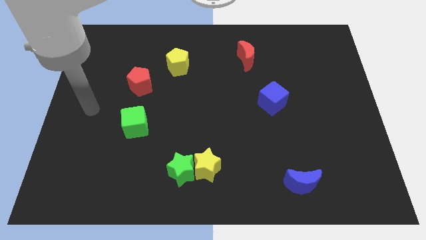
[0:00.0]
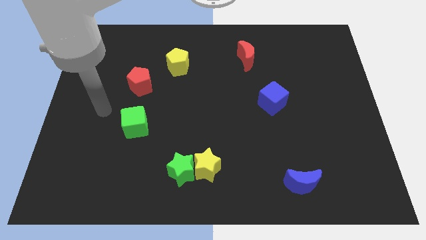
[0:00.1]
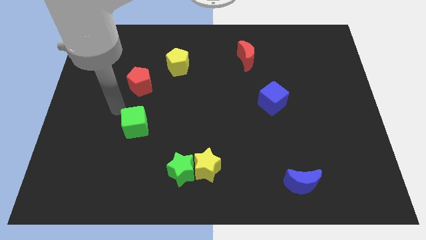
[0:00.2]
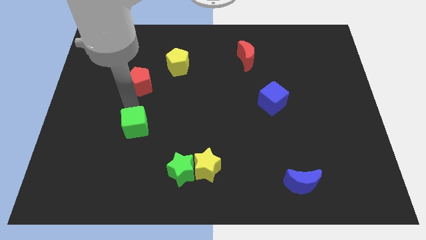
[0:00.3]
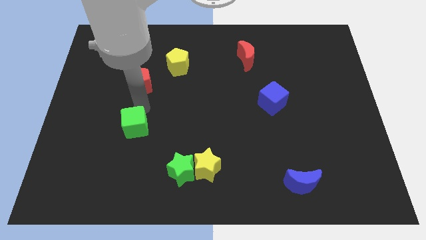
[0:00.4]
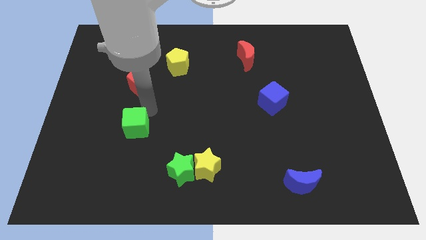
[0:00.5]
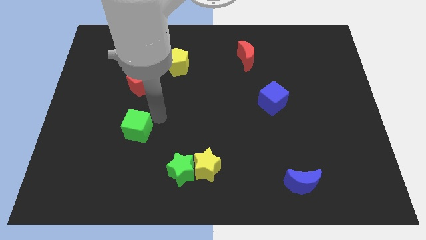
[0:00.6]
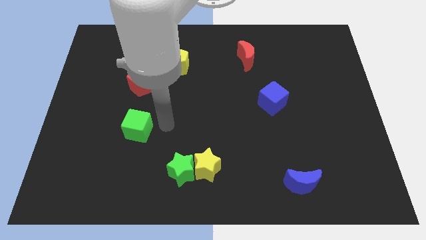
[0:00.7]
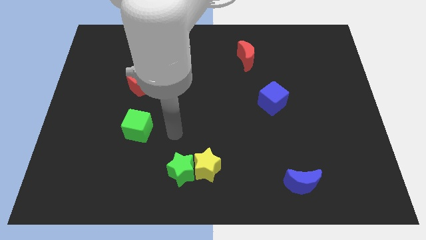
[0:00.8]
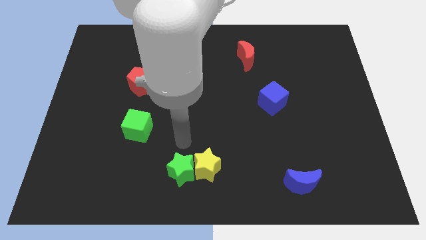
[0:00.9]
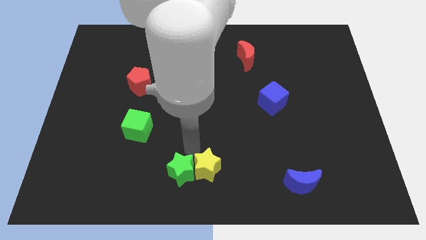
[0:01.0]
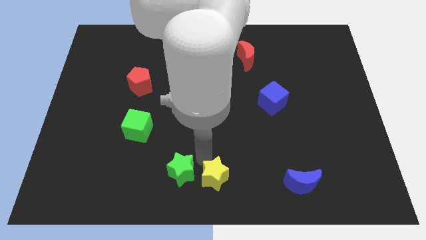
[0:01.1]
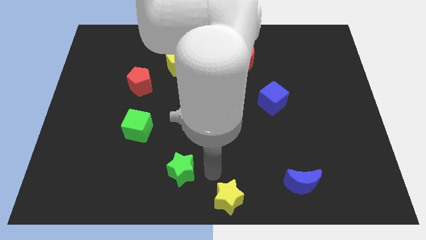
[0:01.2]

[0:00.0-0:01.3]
separate the green star from the yellow star

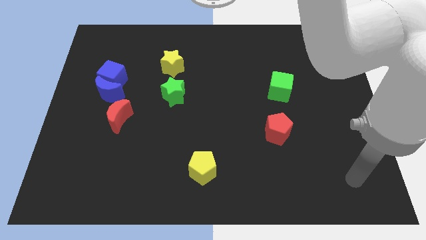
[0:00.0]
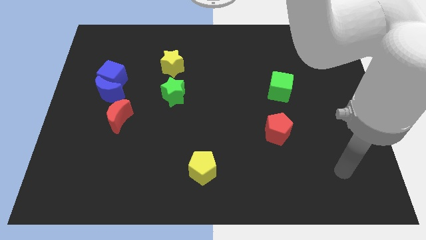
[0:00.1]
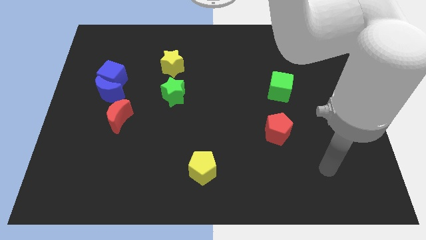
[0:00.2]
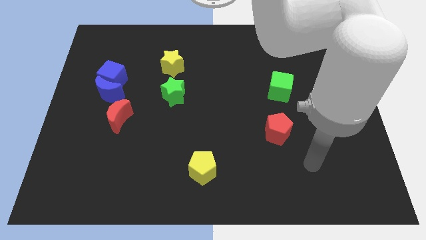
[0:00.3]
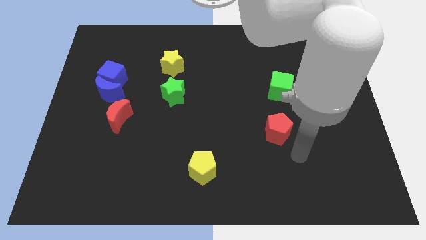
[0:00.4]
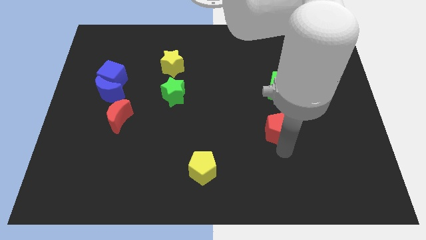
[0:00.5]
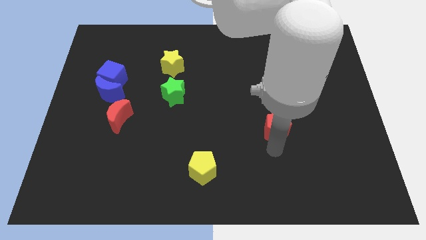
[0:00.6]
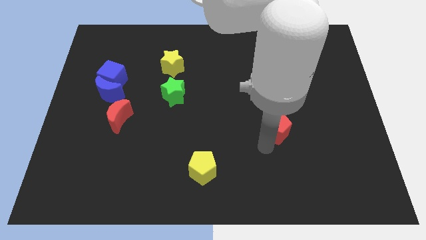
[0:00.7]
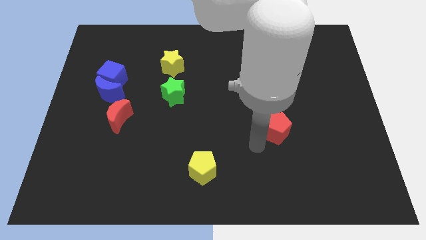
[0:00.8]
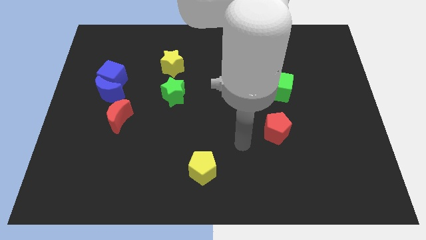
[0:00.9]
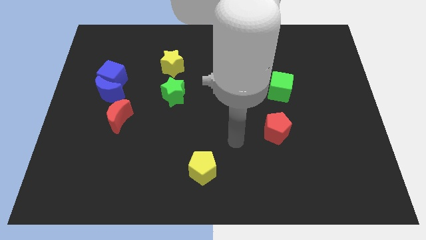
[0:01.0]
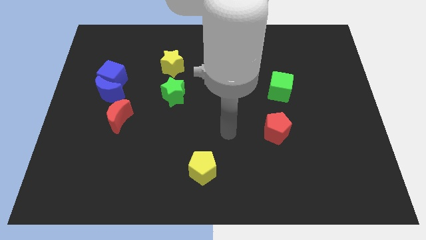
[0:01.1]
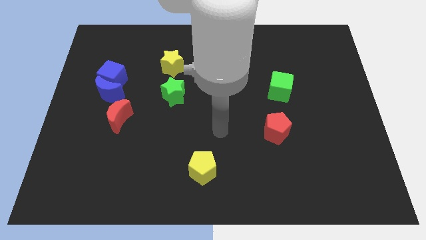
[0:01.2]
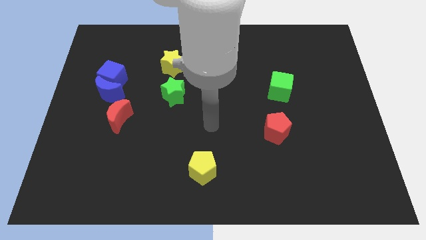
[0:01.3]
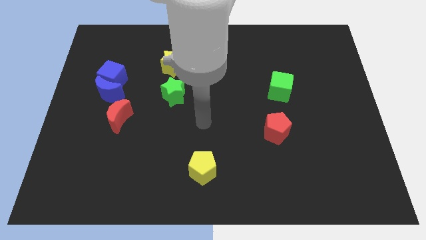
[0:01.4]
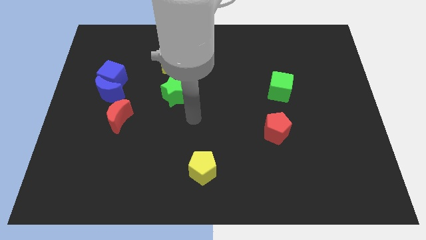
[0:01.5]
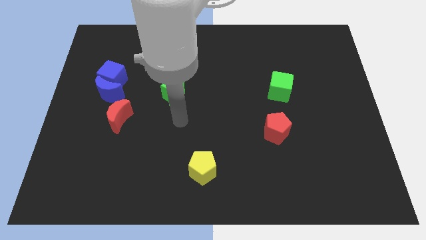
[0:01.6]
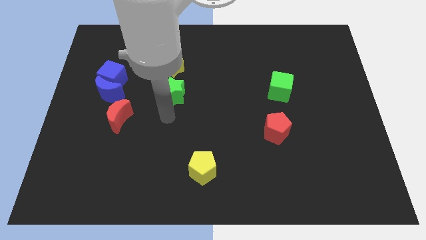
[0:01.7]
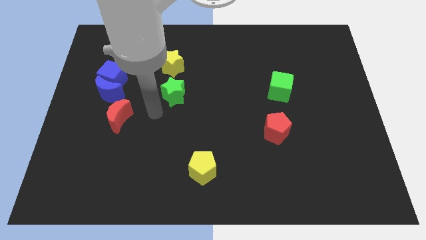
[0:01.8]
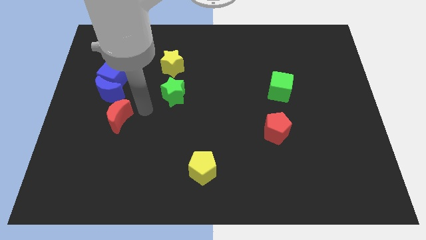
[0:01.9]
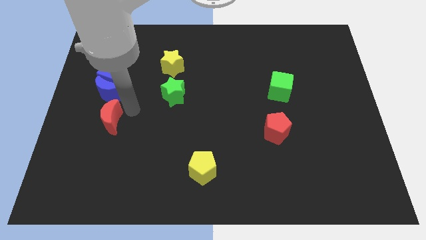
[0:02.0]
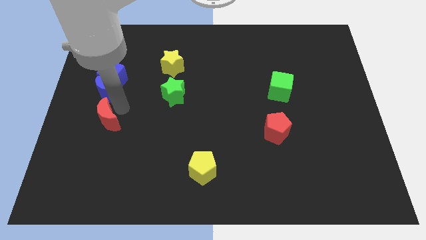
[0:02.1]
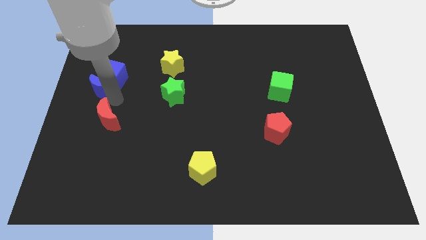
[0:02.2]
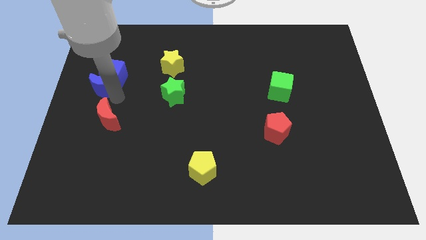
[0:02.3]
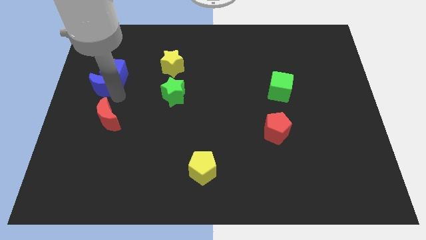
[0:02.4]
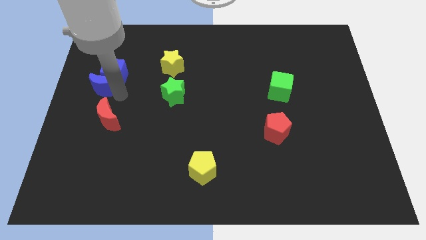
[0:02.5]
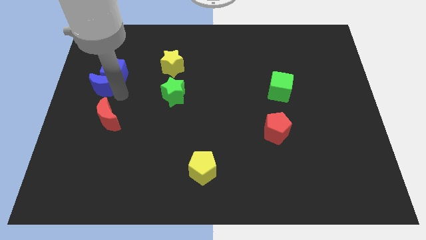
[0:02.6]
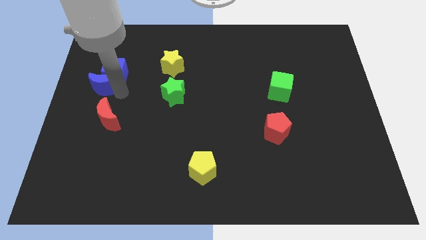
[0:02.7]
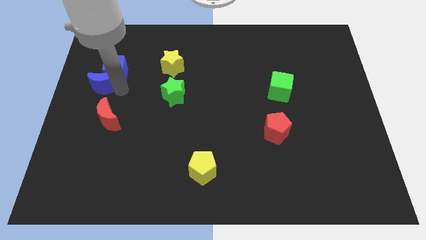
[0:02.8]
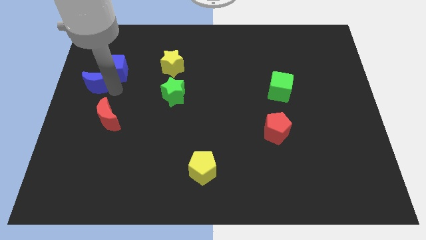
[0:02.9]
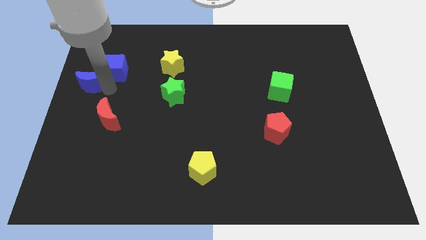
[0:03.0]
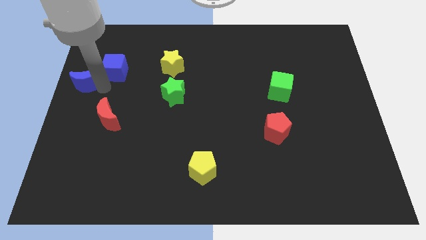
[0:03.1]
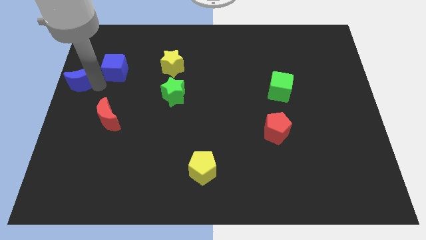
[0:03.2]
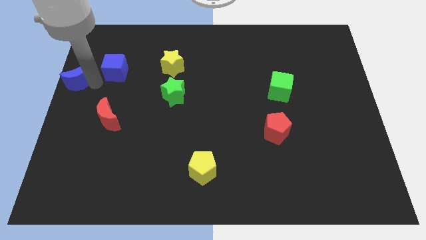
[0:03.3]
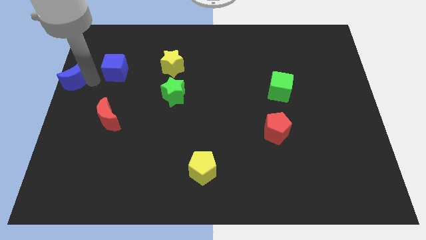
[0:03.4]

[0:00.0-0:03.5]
separate the blue cube from the blue moon

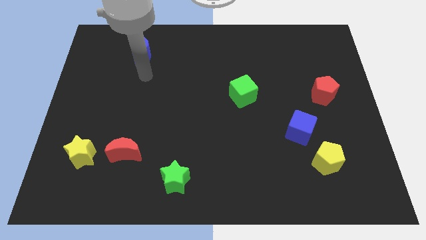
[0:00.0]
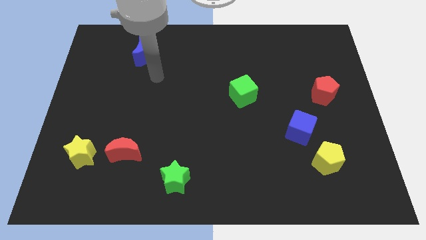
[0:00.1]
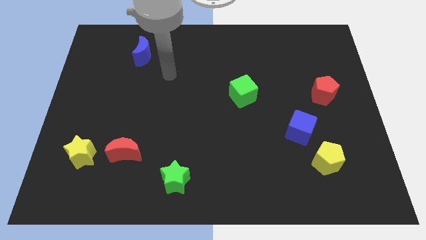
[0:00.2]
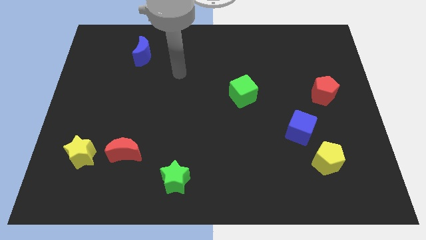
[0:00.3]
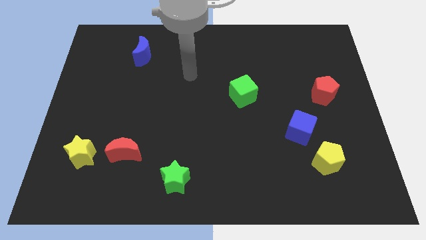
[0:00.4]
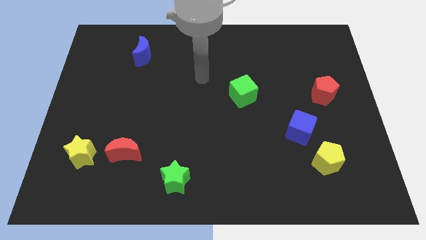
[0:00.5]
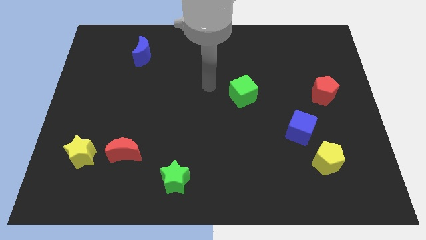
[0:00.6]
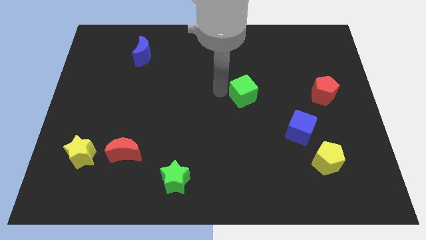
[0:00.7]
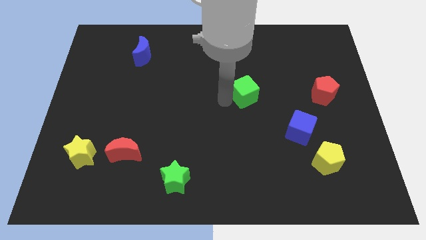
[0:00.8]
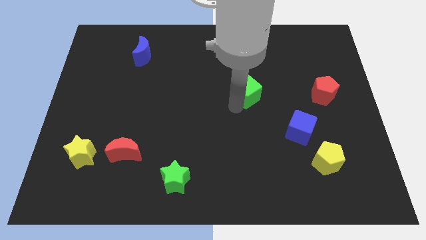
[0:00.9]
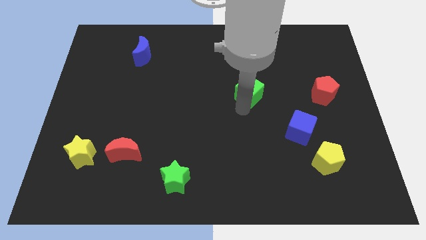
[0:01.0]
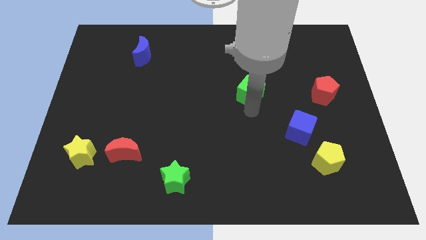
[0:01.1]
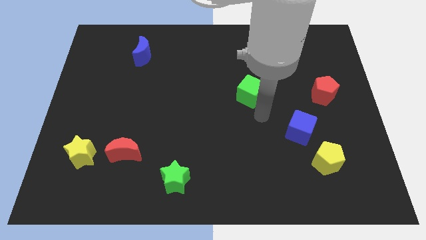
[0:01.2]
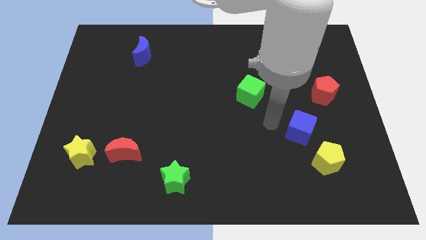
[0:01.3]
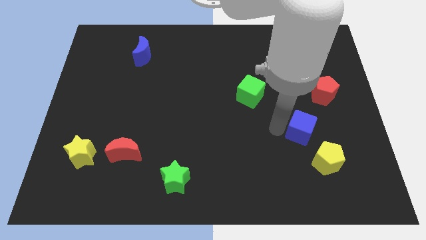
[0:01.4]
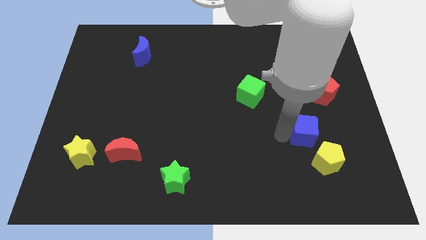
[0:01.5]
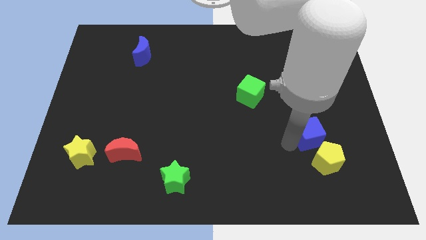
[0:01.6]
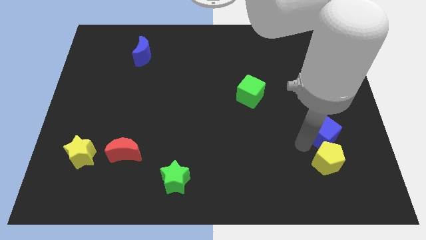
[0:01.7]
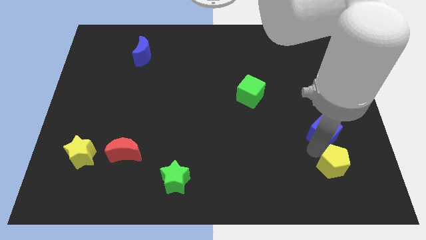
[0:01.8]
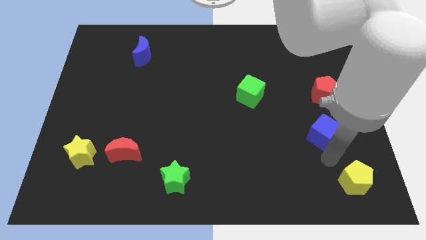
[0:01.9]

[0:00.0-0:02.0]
move the blue cube away from the yellow pentagon

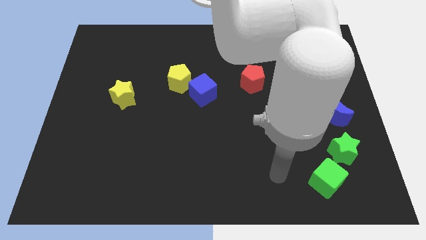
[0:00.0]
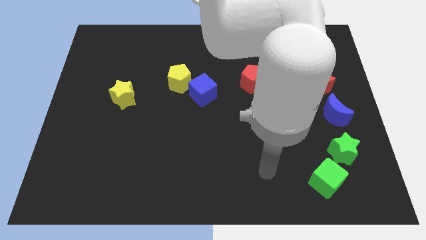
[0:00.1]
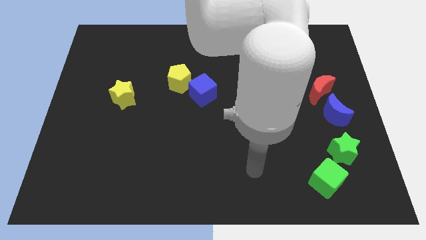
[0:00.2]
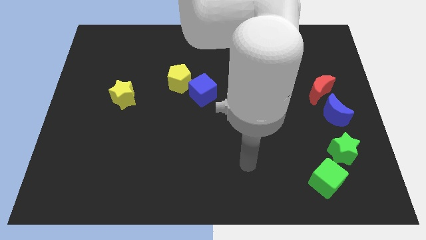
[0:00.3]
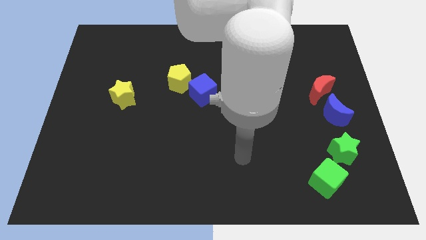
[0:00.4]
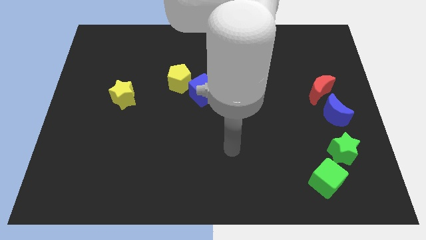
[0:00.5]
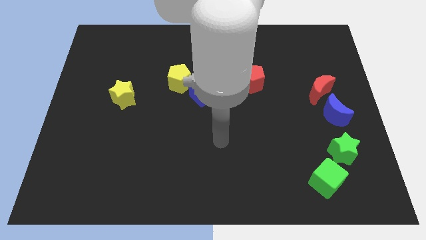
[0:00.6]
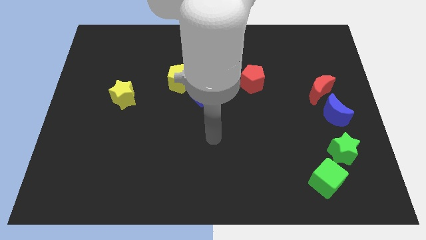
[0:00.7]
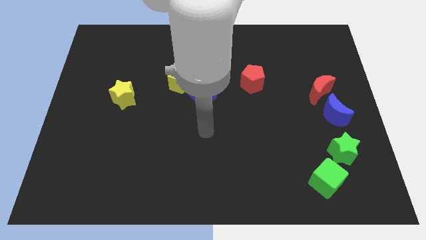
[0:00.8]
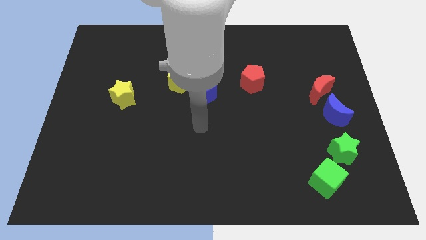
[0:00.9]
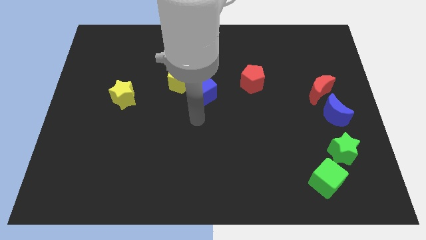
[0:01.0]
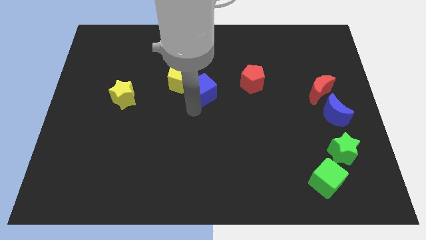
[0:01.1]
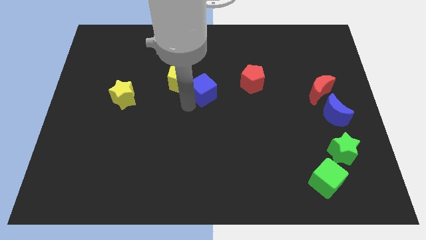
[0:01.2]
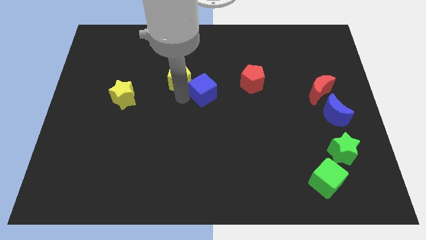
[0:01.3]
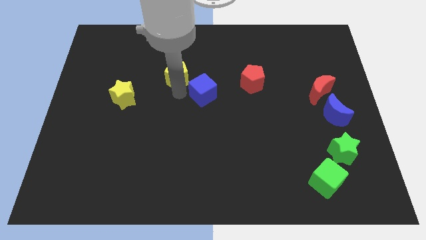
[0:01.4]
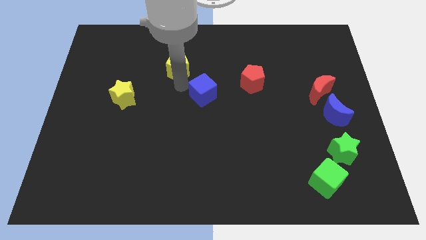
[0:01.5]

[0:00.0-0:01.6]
separate the blue cube from the yellow pentagon

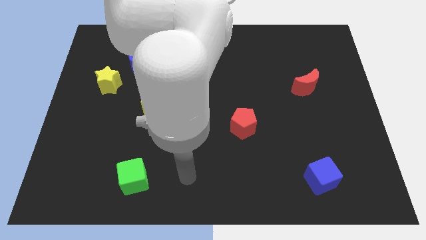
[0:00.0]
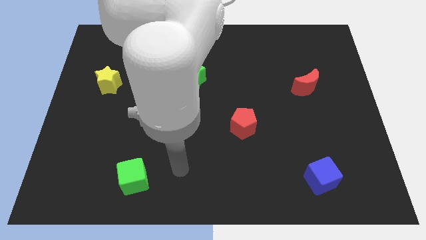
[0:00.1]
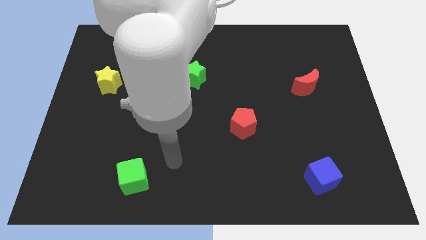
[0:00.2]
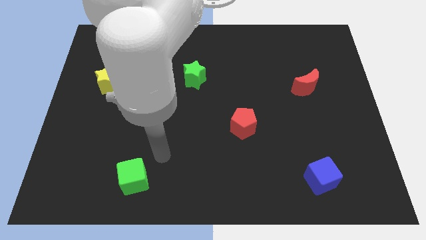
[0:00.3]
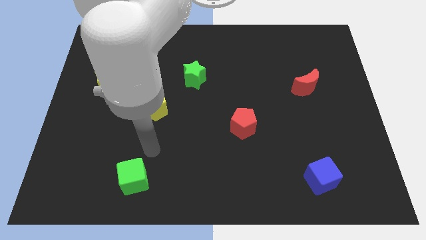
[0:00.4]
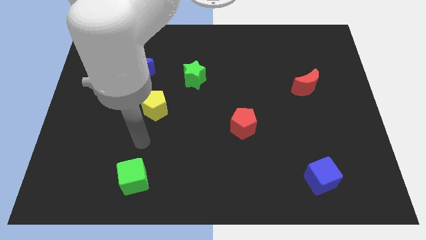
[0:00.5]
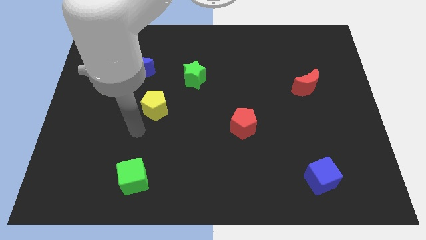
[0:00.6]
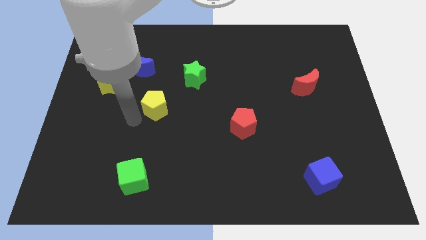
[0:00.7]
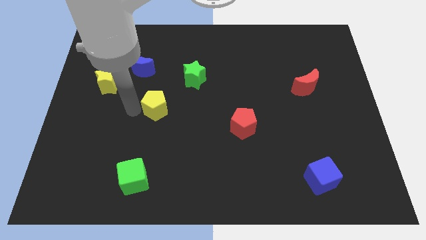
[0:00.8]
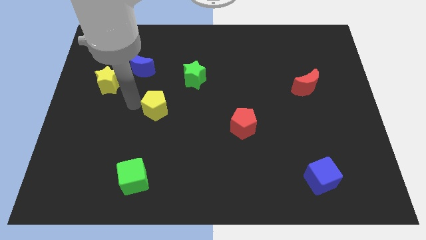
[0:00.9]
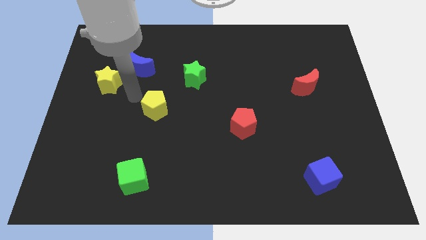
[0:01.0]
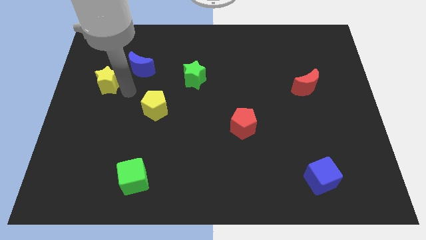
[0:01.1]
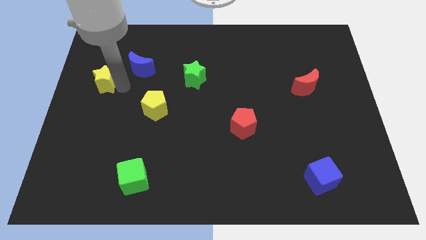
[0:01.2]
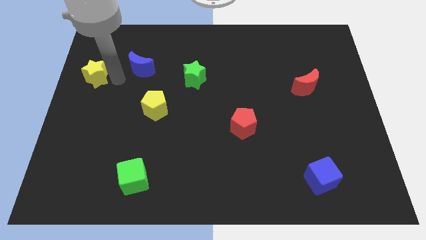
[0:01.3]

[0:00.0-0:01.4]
move the blue moon away from the yellow star
